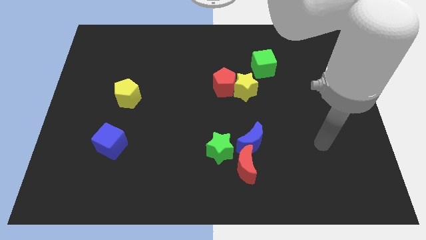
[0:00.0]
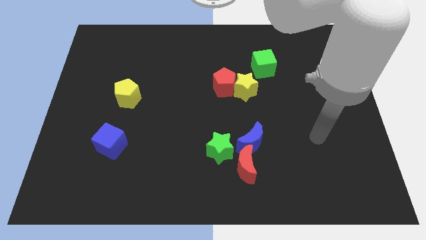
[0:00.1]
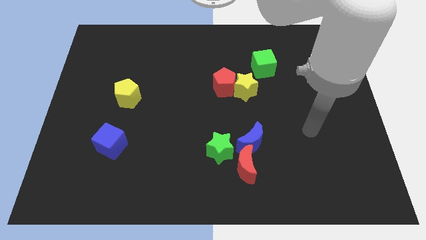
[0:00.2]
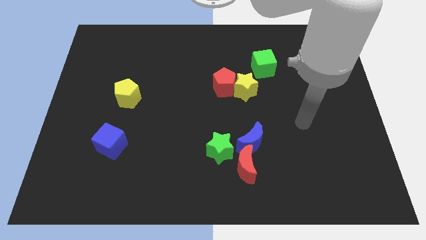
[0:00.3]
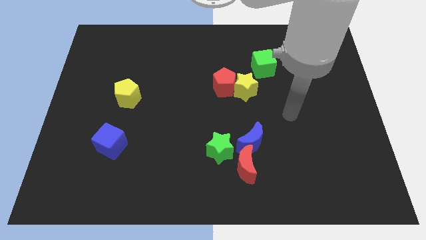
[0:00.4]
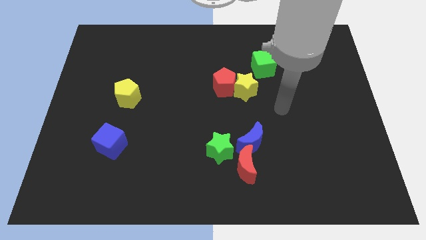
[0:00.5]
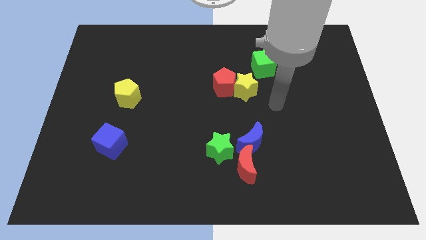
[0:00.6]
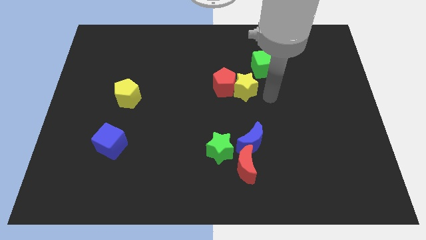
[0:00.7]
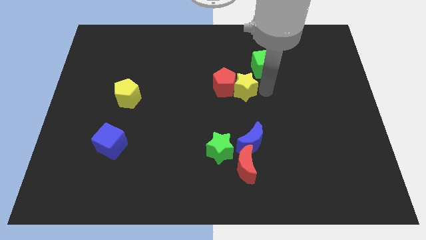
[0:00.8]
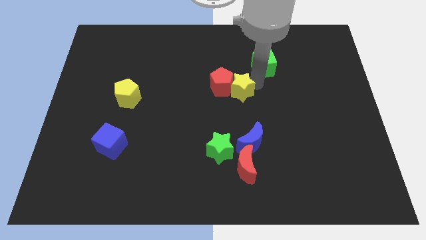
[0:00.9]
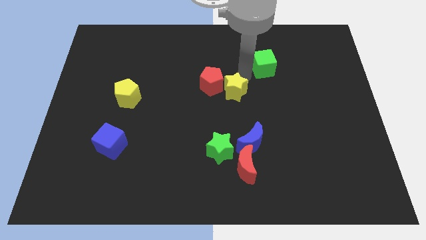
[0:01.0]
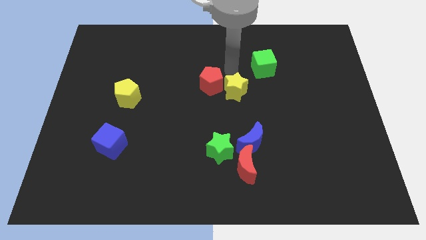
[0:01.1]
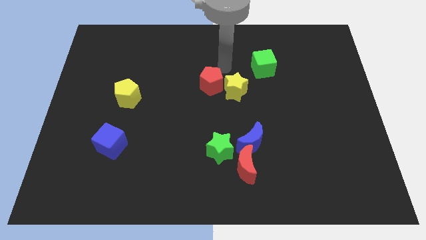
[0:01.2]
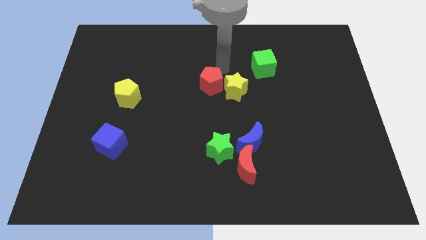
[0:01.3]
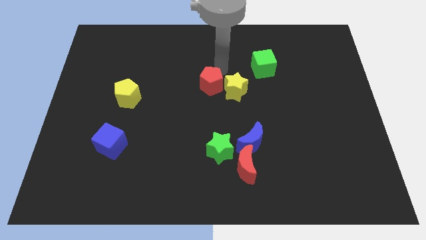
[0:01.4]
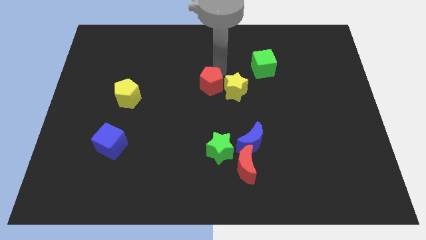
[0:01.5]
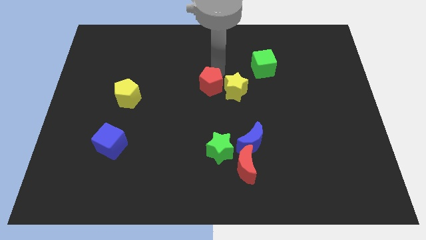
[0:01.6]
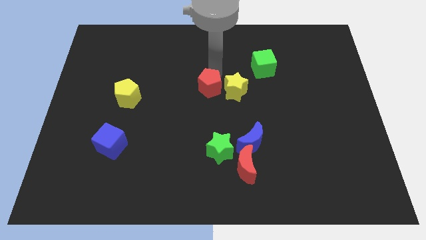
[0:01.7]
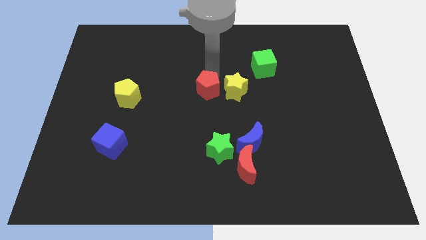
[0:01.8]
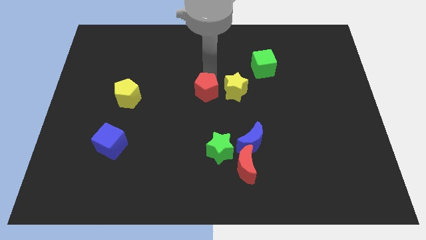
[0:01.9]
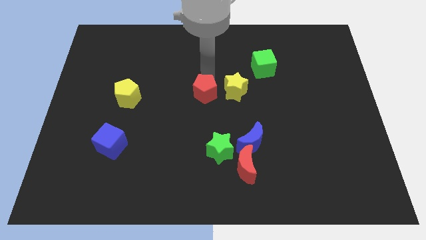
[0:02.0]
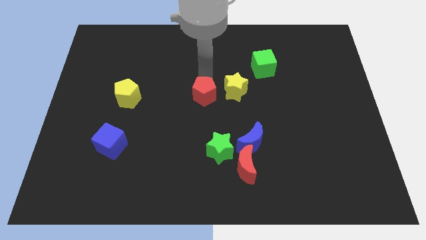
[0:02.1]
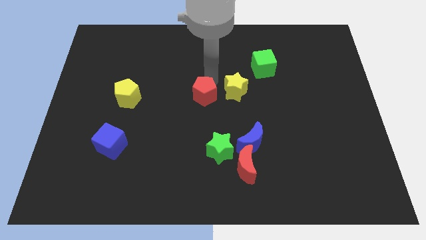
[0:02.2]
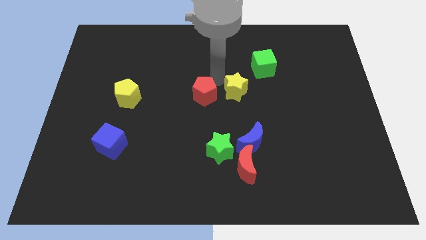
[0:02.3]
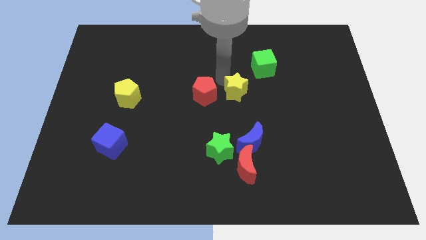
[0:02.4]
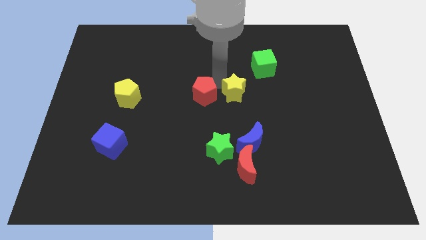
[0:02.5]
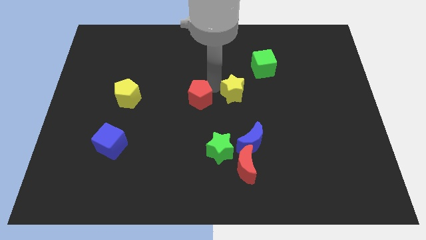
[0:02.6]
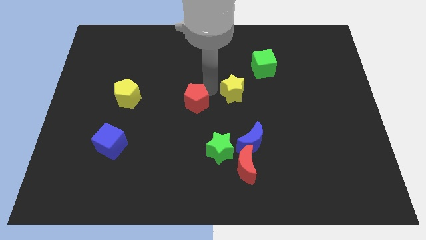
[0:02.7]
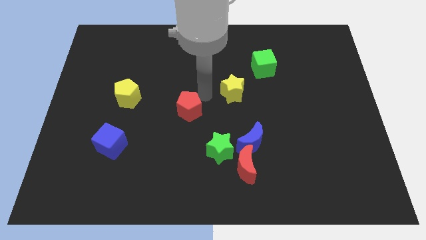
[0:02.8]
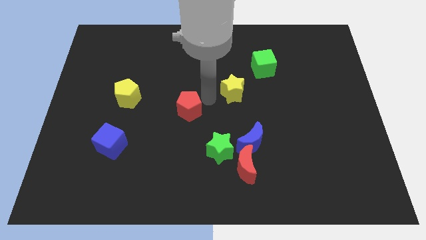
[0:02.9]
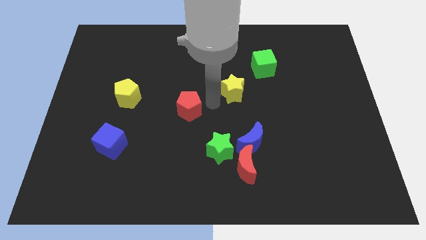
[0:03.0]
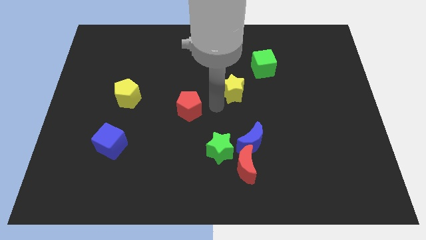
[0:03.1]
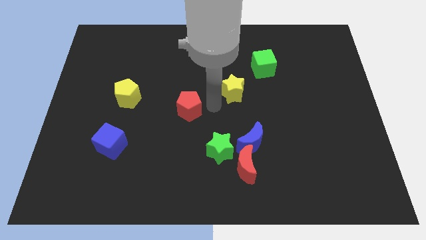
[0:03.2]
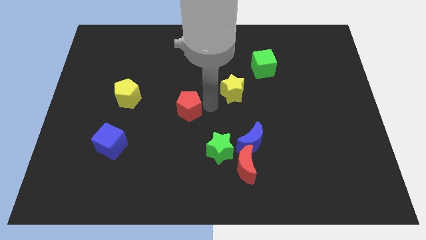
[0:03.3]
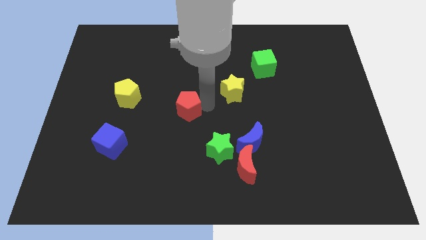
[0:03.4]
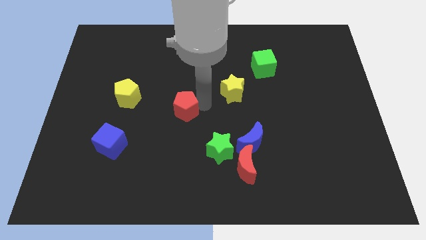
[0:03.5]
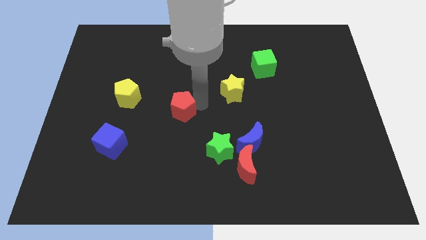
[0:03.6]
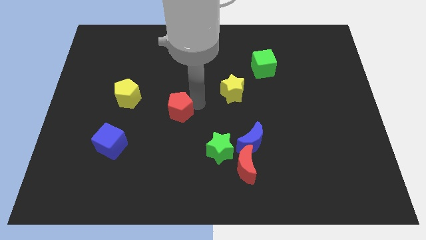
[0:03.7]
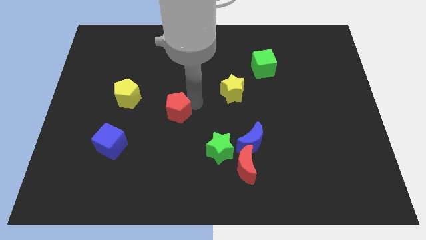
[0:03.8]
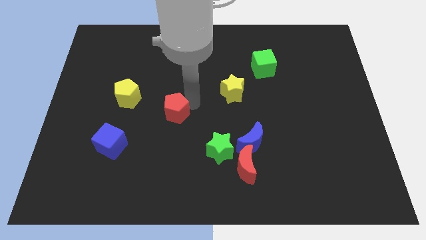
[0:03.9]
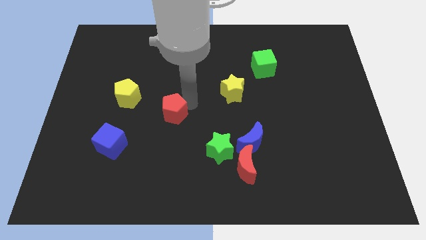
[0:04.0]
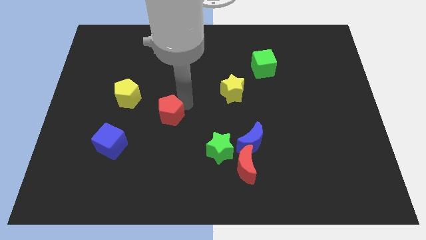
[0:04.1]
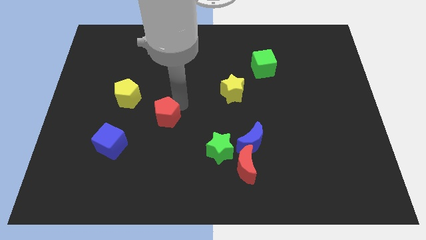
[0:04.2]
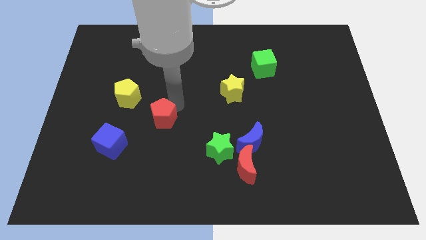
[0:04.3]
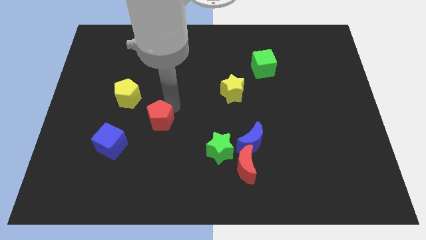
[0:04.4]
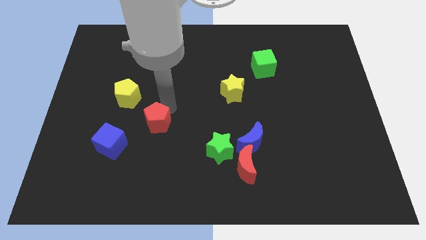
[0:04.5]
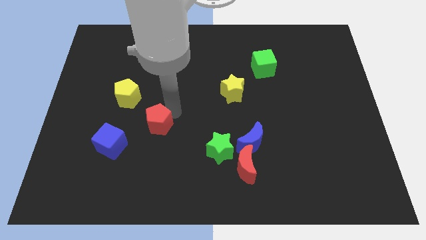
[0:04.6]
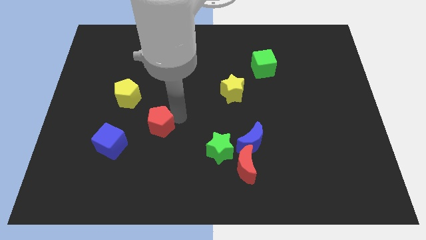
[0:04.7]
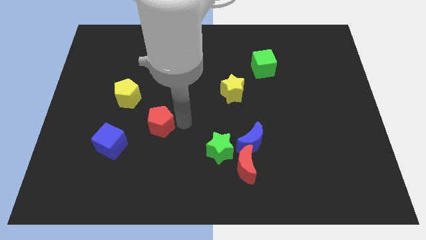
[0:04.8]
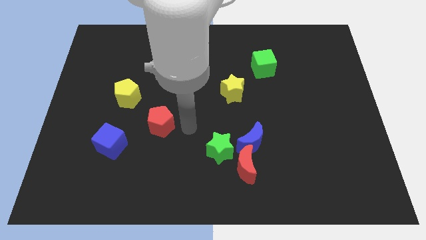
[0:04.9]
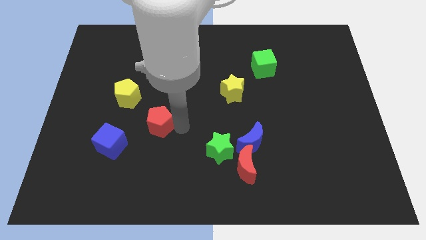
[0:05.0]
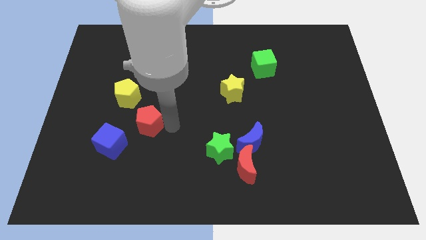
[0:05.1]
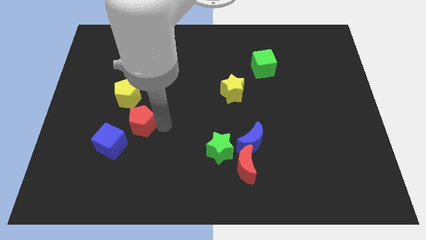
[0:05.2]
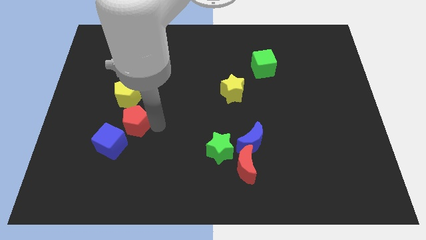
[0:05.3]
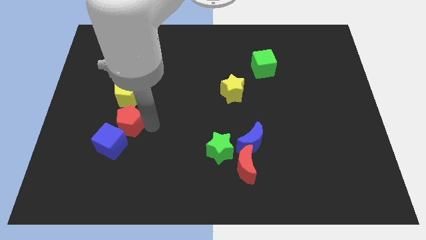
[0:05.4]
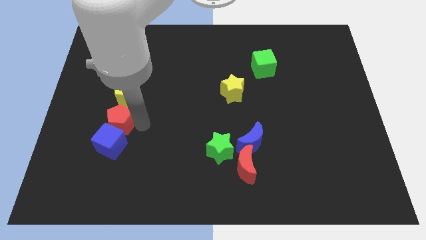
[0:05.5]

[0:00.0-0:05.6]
slide the red pentagon to the top left of the blue cube

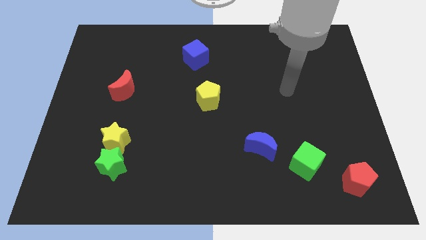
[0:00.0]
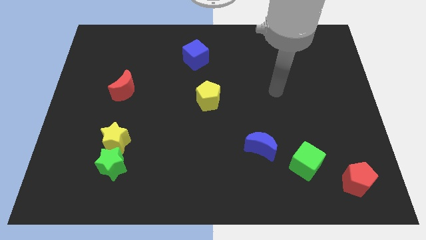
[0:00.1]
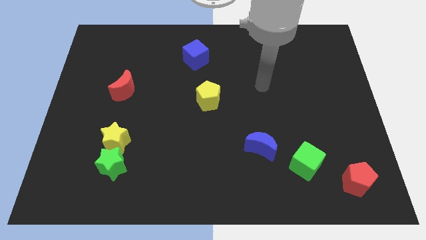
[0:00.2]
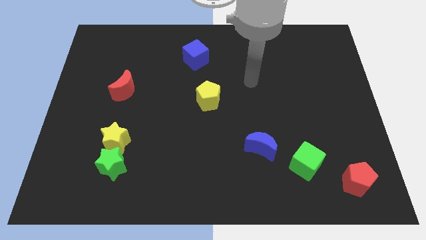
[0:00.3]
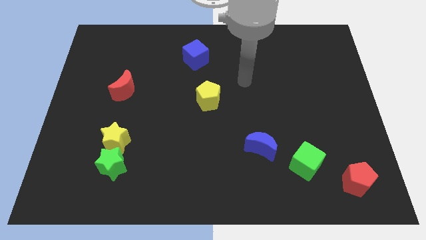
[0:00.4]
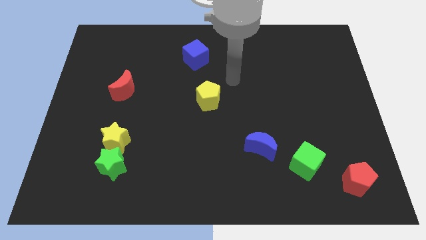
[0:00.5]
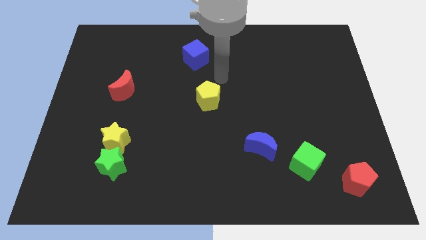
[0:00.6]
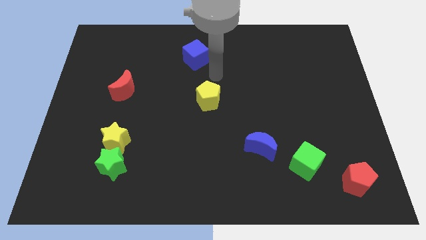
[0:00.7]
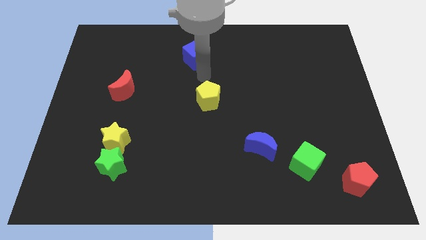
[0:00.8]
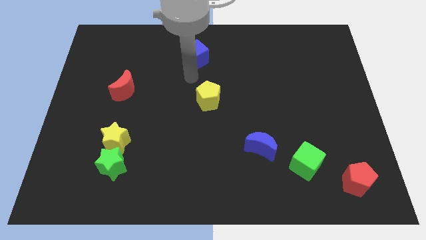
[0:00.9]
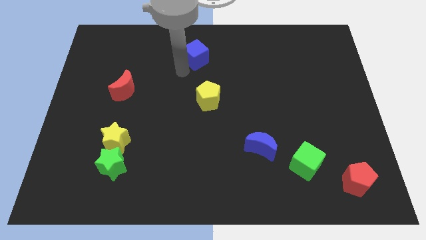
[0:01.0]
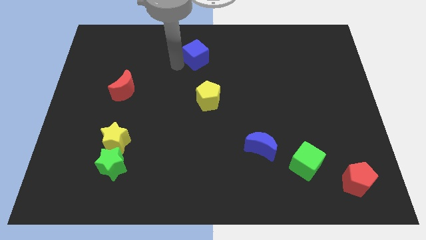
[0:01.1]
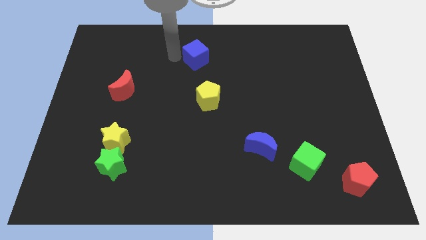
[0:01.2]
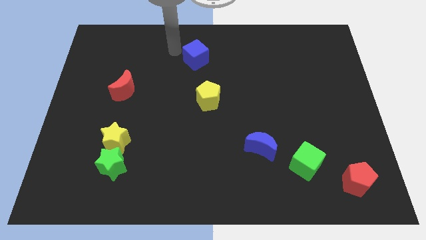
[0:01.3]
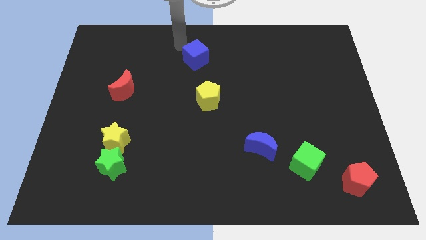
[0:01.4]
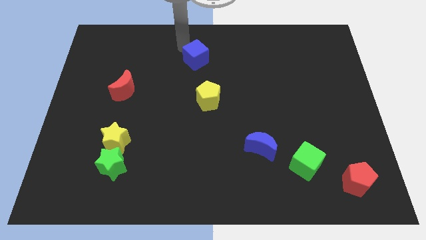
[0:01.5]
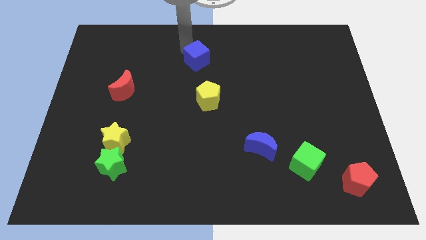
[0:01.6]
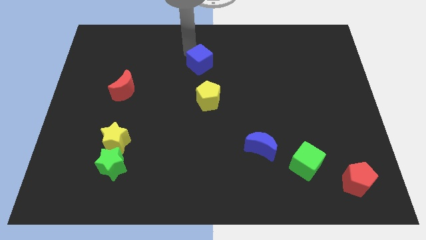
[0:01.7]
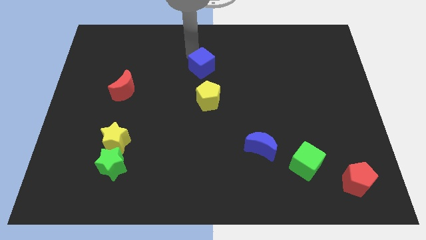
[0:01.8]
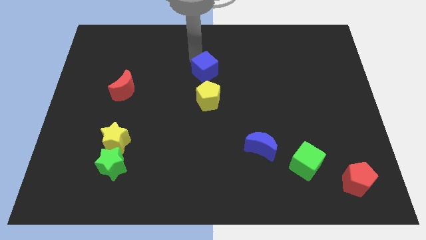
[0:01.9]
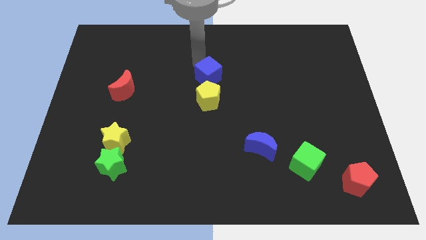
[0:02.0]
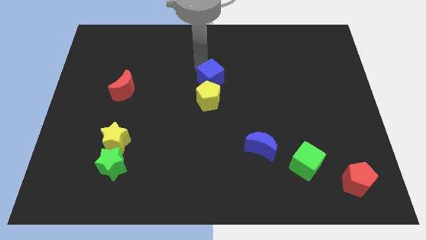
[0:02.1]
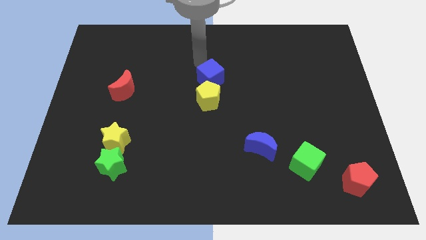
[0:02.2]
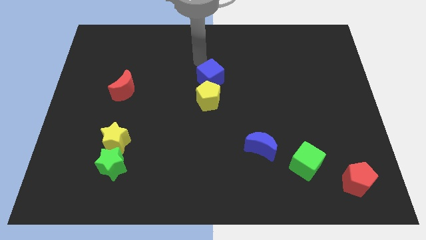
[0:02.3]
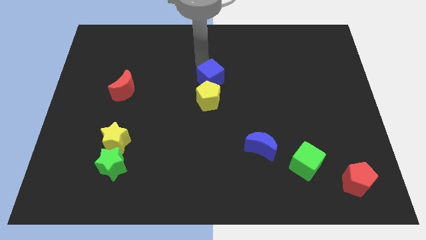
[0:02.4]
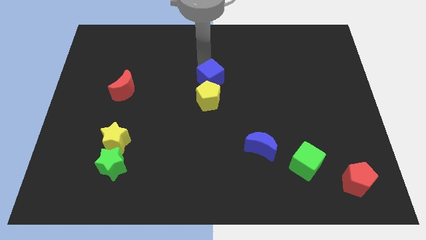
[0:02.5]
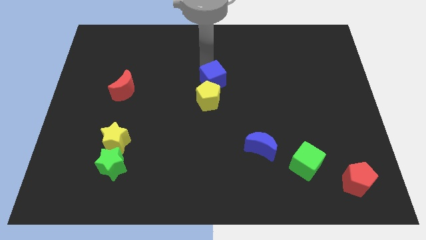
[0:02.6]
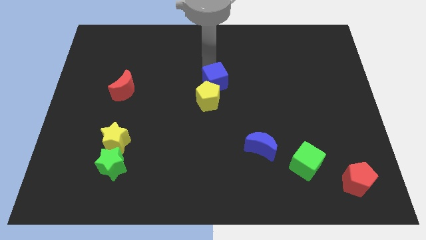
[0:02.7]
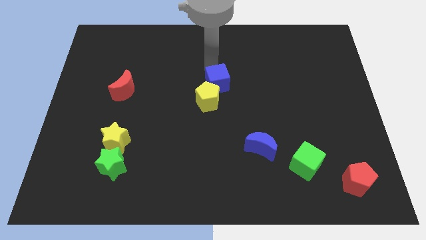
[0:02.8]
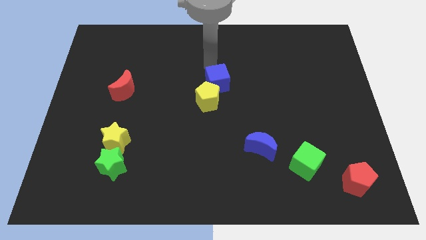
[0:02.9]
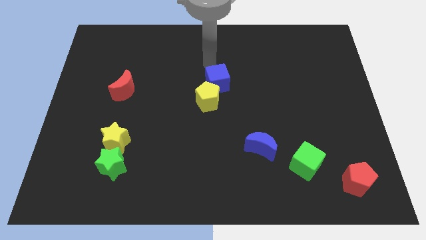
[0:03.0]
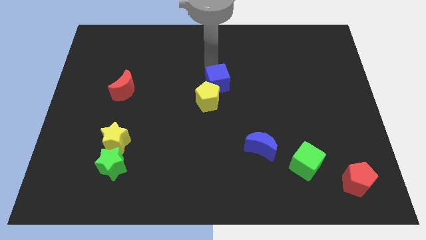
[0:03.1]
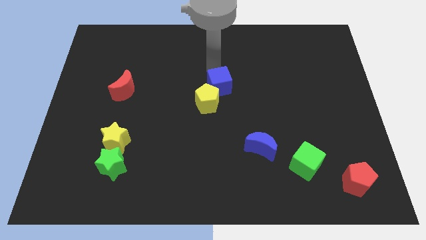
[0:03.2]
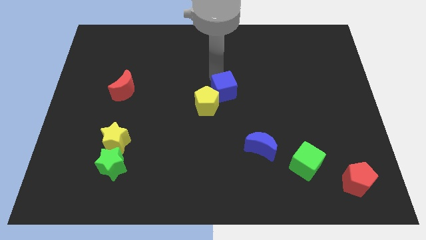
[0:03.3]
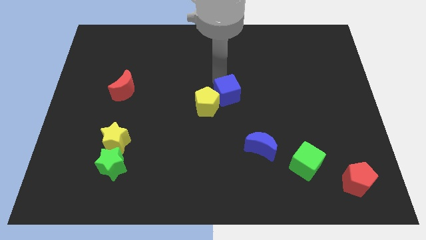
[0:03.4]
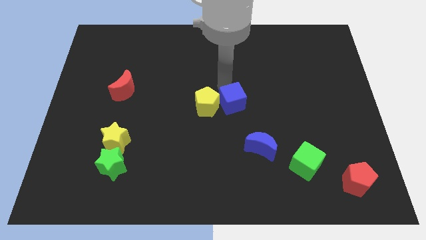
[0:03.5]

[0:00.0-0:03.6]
slide the blue cube to the bottom right of the yellow pentagon
